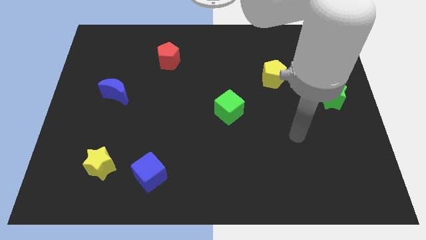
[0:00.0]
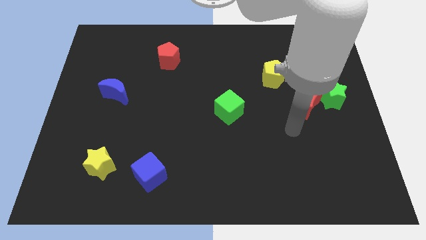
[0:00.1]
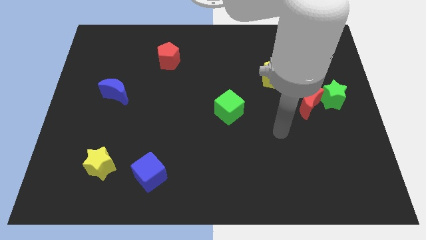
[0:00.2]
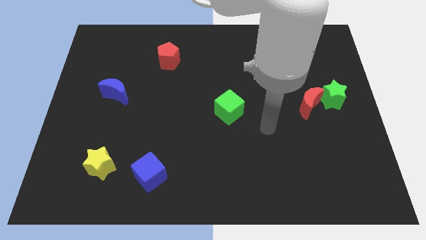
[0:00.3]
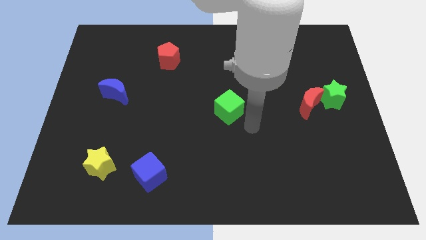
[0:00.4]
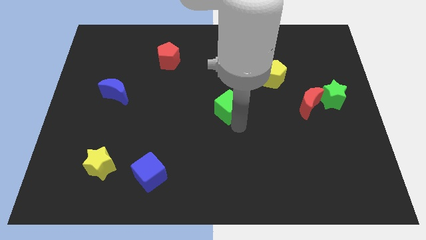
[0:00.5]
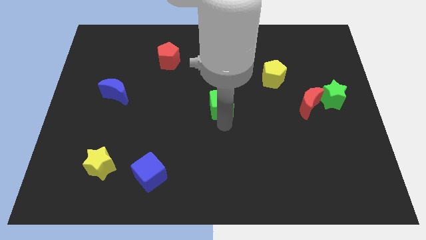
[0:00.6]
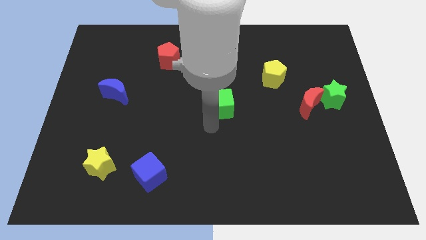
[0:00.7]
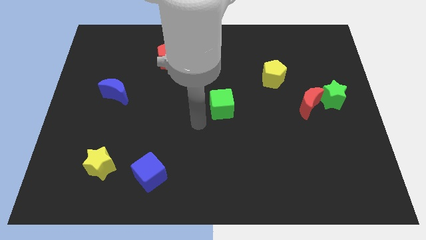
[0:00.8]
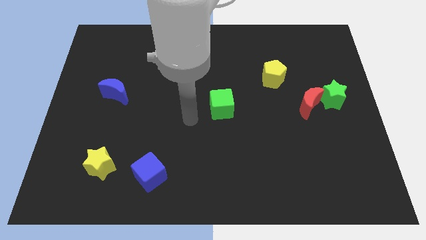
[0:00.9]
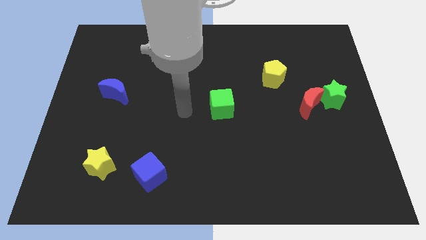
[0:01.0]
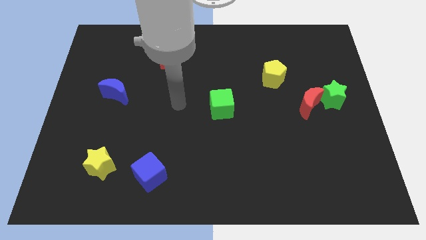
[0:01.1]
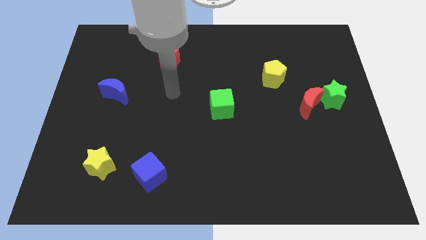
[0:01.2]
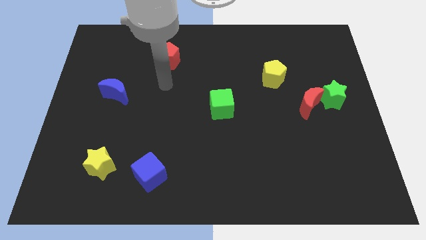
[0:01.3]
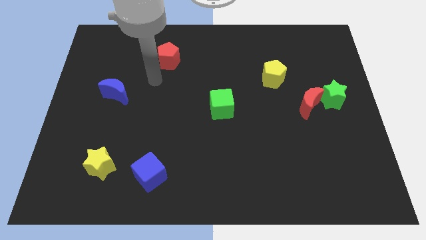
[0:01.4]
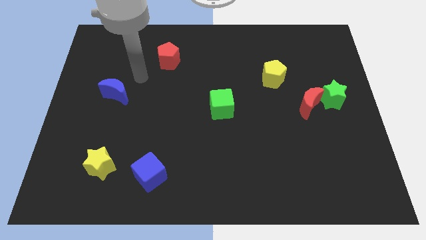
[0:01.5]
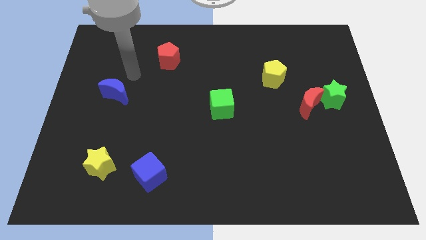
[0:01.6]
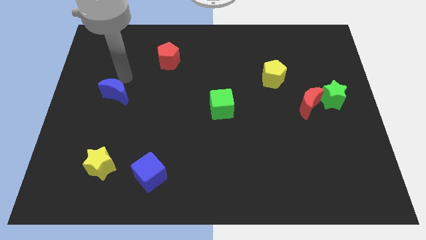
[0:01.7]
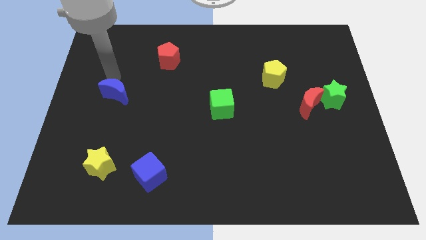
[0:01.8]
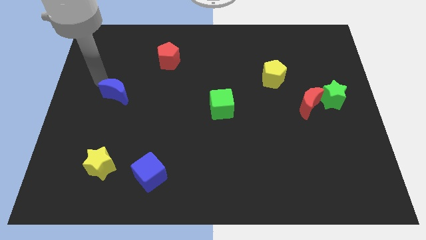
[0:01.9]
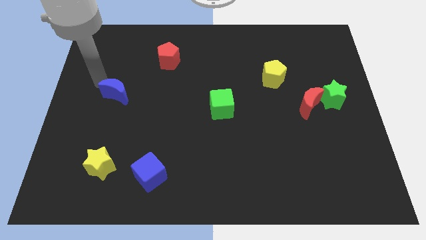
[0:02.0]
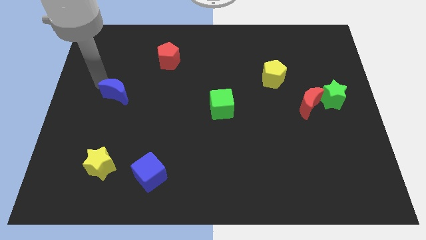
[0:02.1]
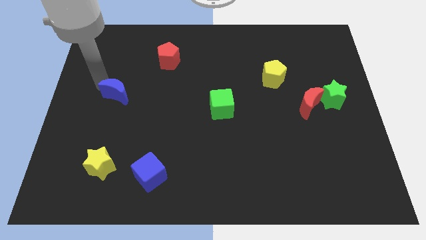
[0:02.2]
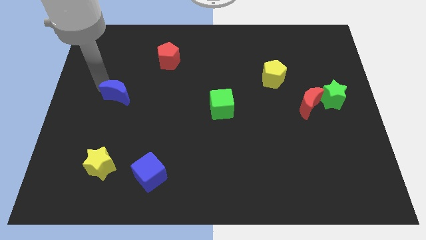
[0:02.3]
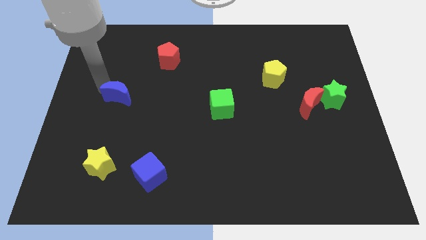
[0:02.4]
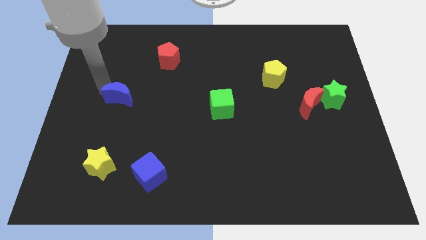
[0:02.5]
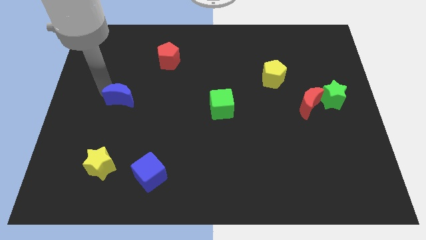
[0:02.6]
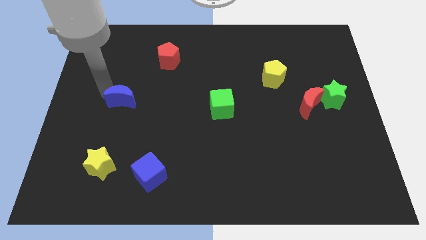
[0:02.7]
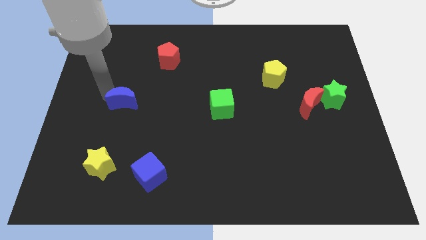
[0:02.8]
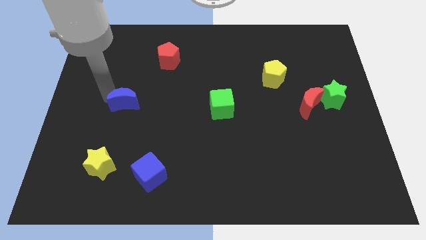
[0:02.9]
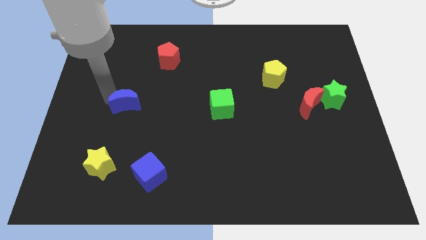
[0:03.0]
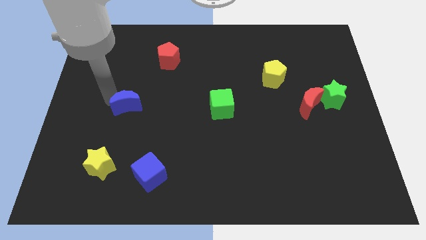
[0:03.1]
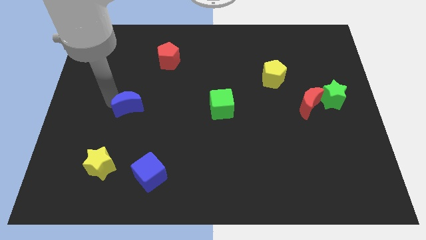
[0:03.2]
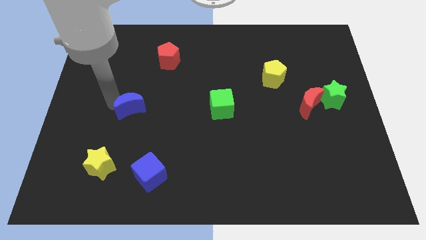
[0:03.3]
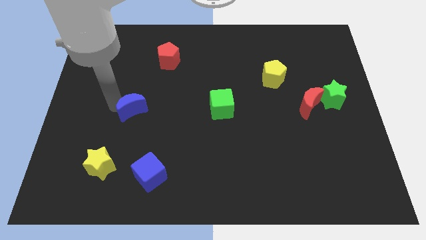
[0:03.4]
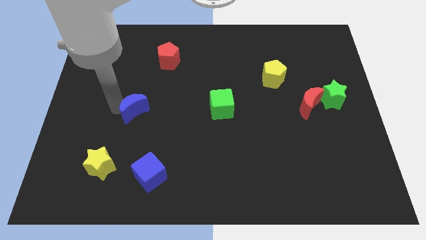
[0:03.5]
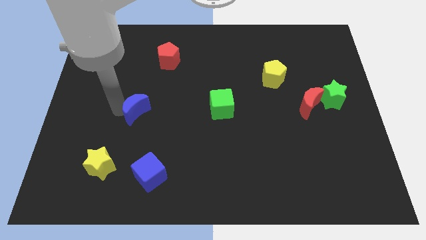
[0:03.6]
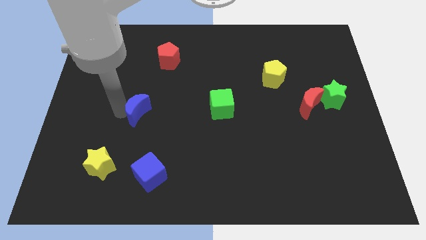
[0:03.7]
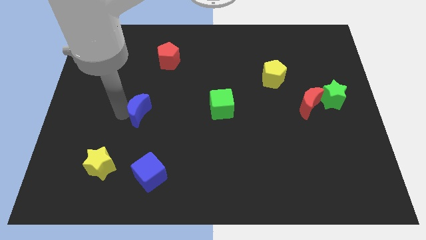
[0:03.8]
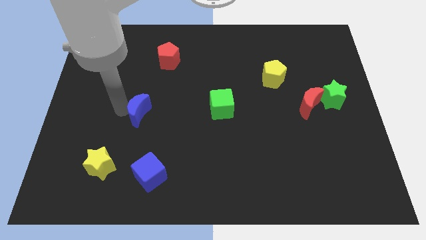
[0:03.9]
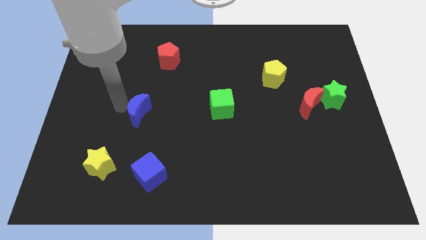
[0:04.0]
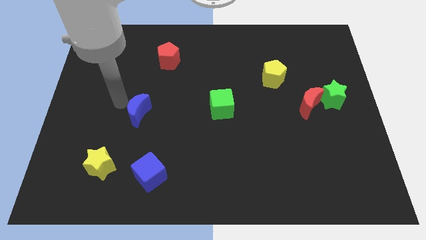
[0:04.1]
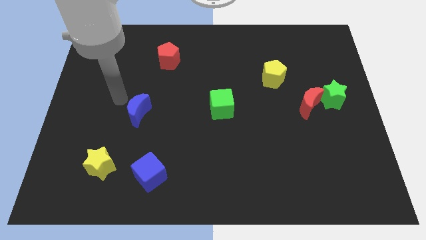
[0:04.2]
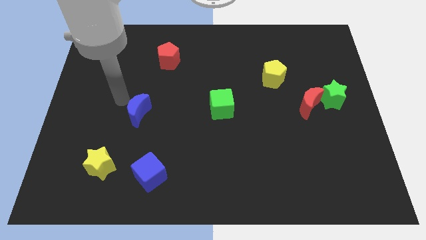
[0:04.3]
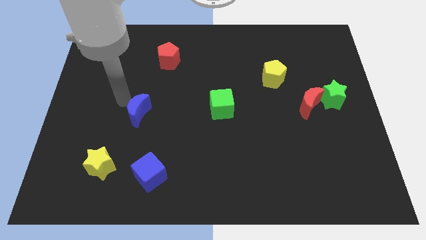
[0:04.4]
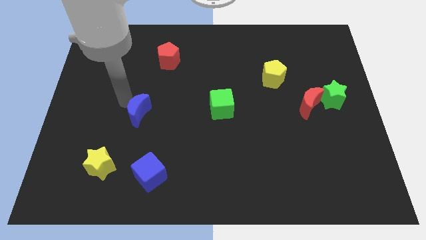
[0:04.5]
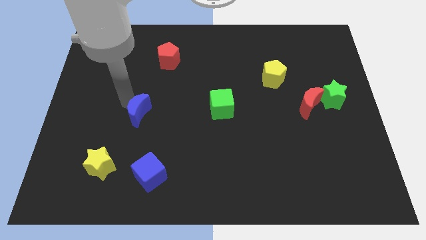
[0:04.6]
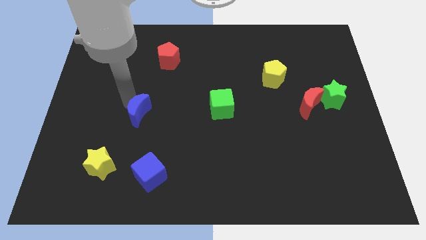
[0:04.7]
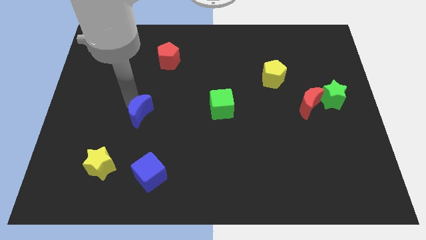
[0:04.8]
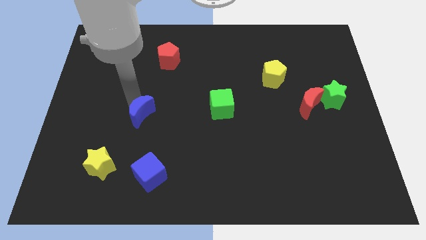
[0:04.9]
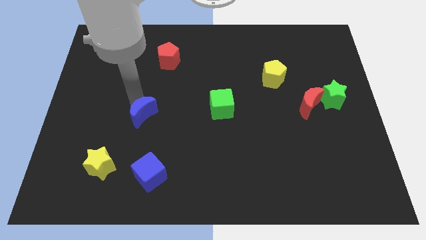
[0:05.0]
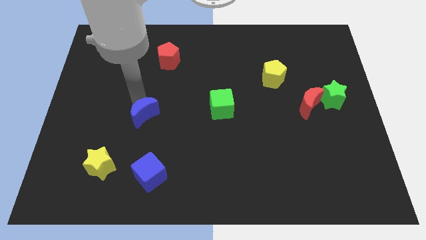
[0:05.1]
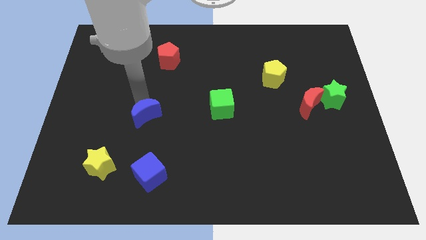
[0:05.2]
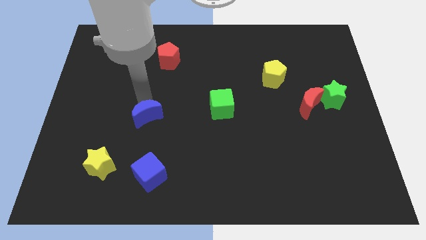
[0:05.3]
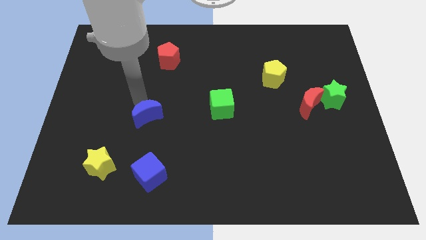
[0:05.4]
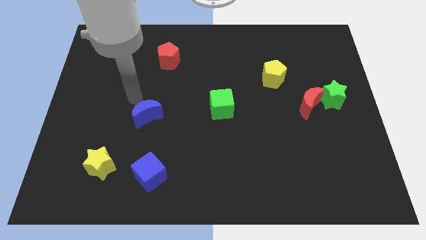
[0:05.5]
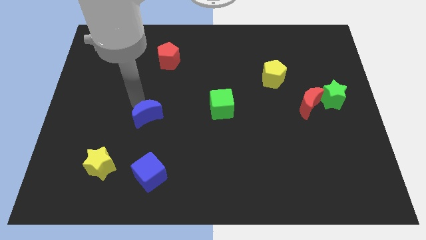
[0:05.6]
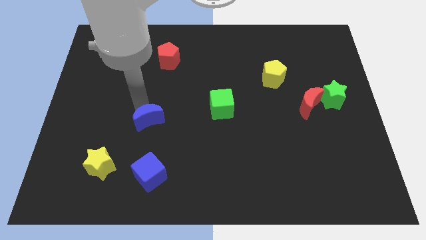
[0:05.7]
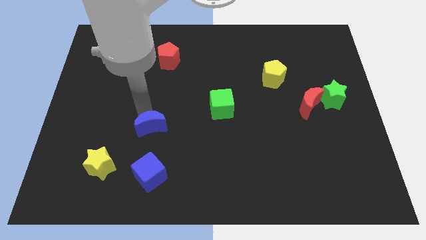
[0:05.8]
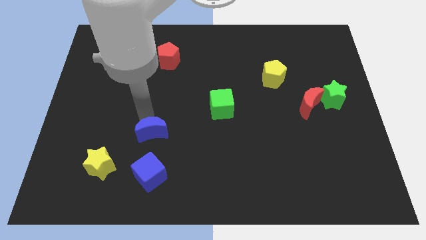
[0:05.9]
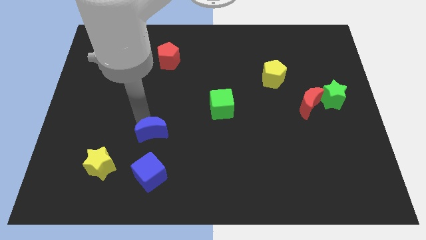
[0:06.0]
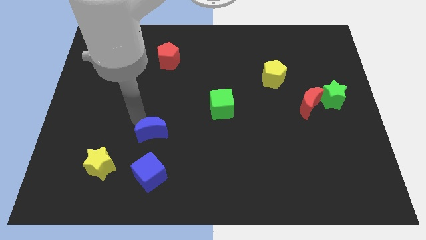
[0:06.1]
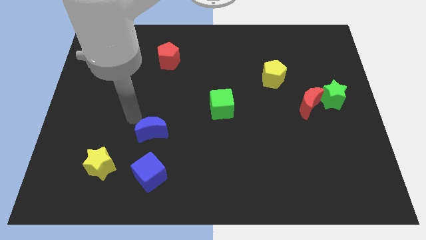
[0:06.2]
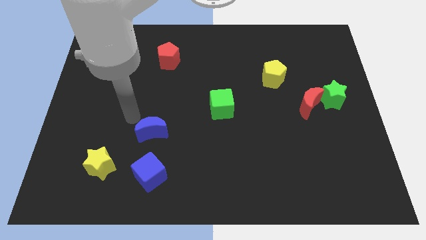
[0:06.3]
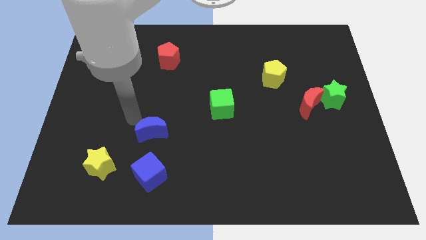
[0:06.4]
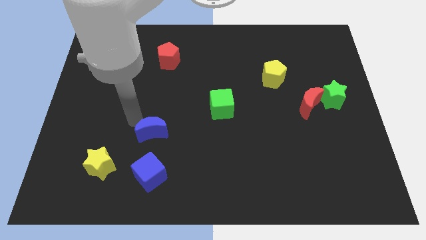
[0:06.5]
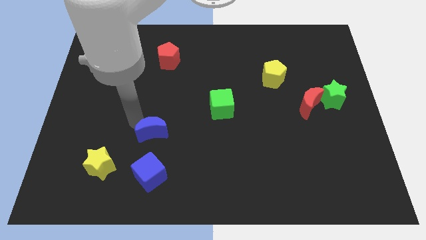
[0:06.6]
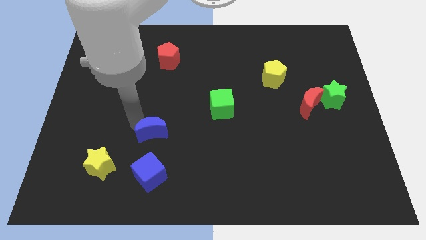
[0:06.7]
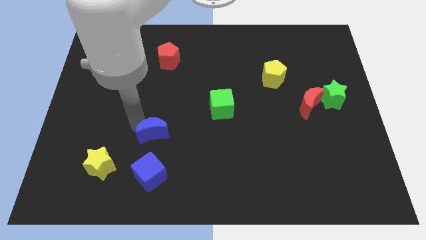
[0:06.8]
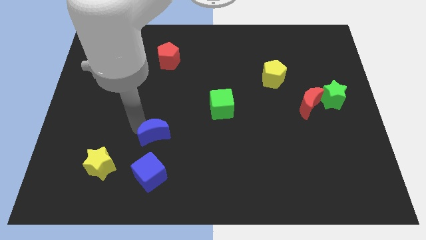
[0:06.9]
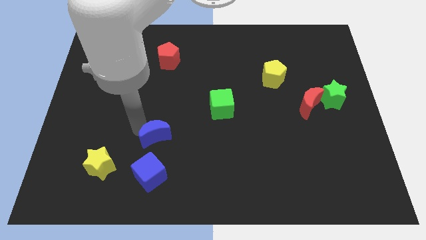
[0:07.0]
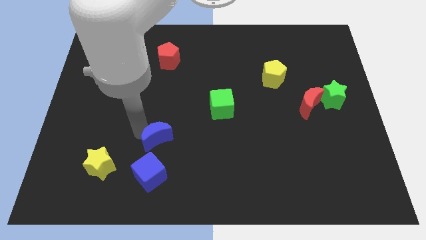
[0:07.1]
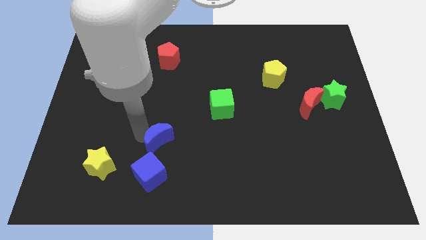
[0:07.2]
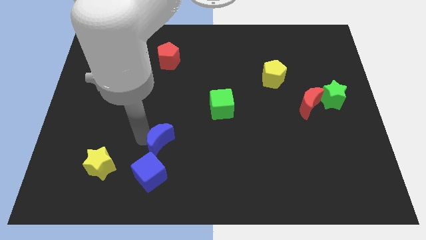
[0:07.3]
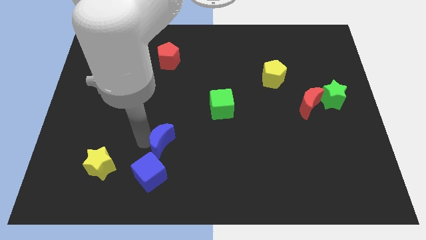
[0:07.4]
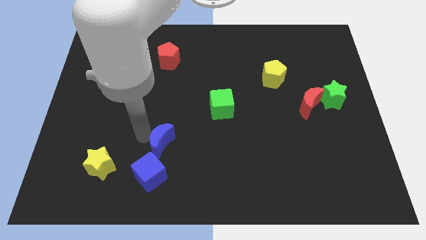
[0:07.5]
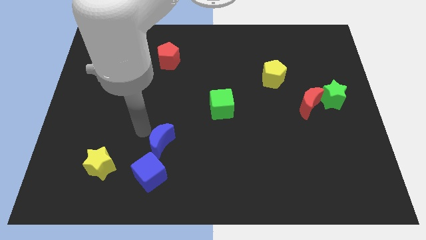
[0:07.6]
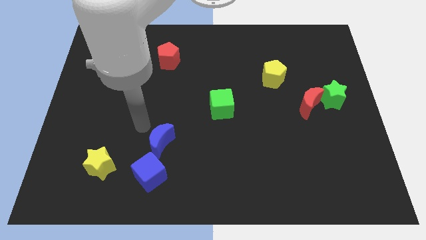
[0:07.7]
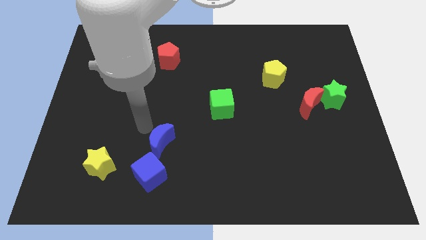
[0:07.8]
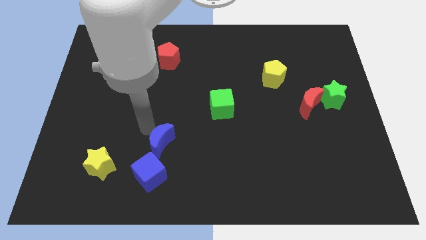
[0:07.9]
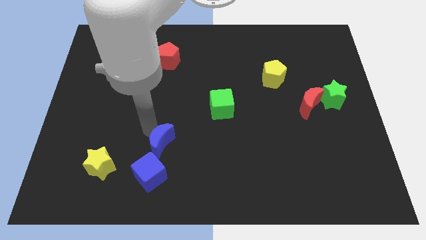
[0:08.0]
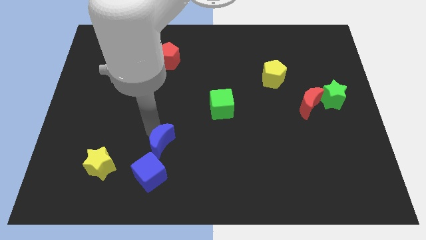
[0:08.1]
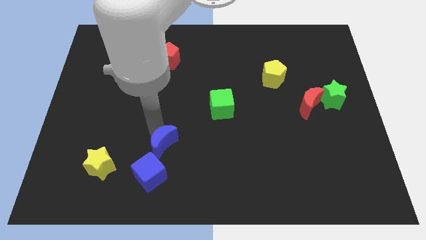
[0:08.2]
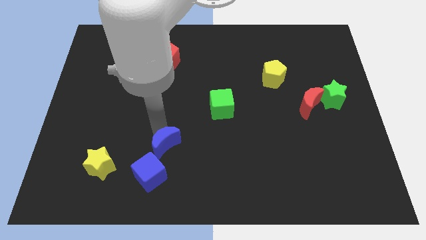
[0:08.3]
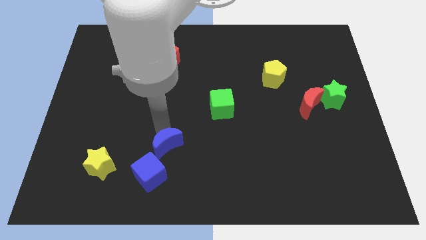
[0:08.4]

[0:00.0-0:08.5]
push the blue moon diagonally down and to the right
